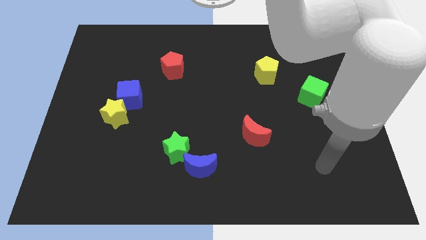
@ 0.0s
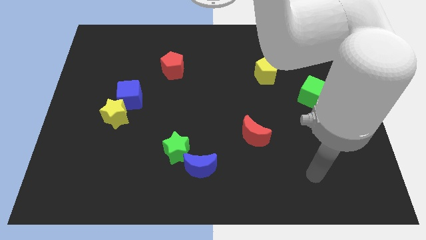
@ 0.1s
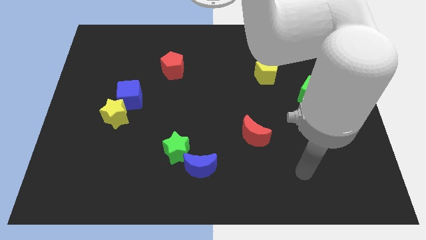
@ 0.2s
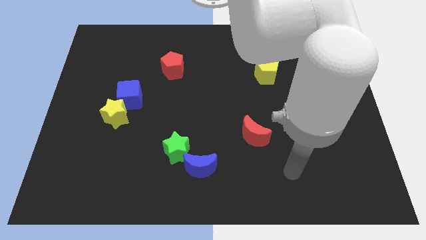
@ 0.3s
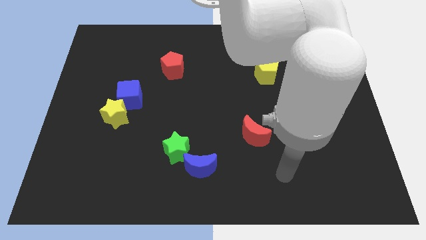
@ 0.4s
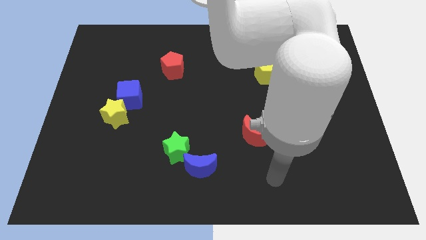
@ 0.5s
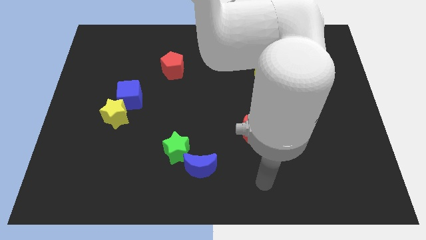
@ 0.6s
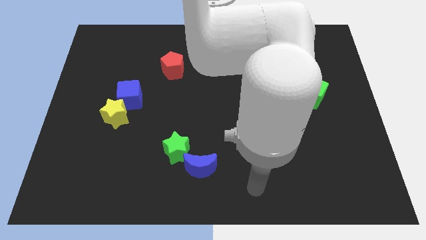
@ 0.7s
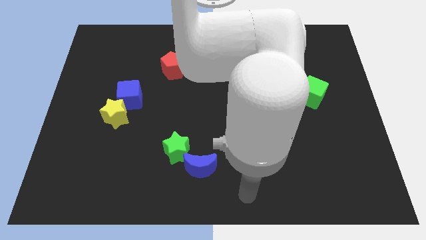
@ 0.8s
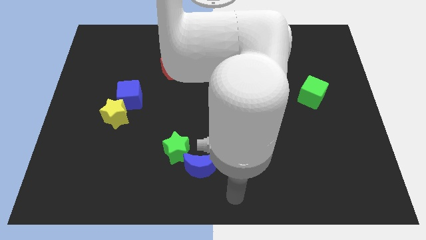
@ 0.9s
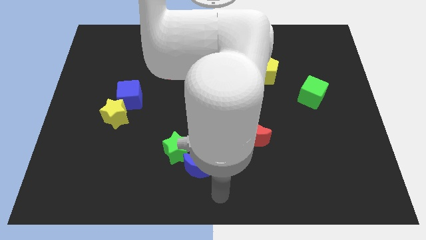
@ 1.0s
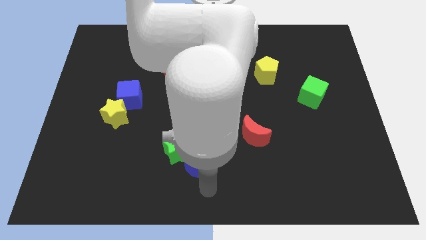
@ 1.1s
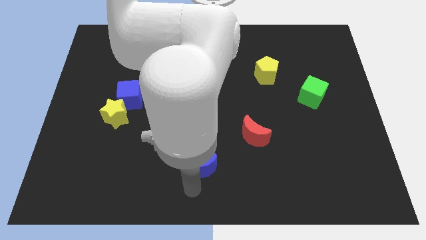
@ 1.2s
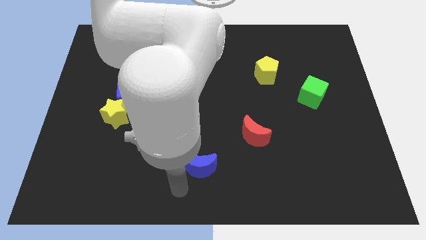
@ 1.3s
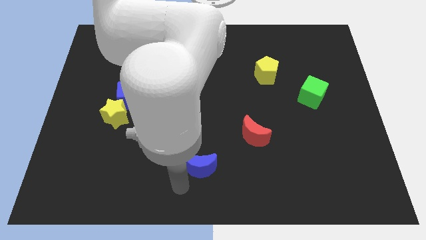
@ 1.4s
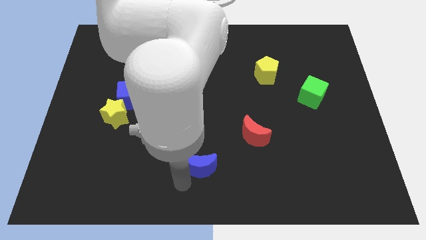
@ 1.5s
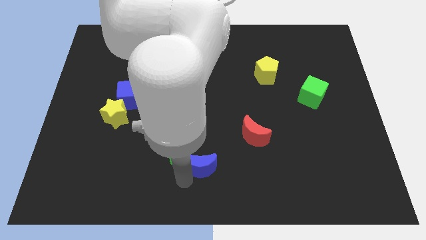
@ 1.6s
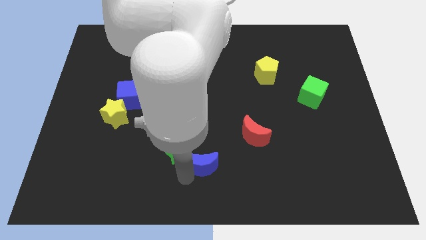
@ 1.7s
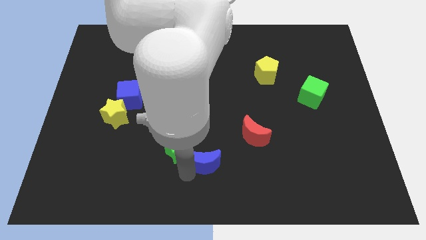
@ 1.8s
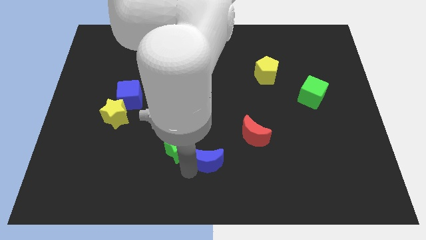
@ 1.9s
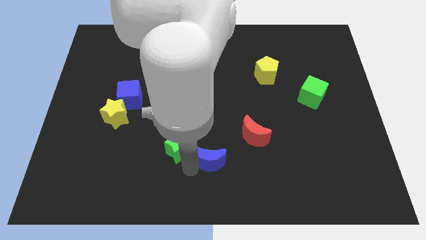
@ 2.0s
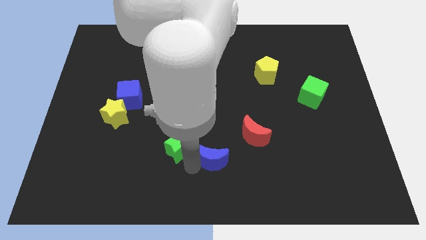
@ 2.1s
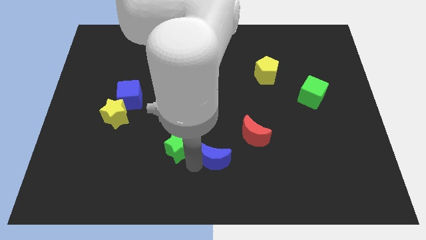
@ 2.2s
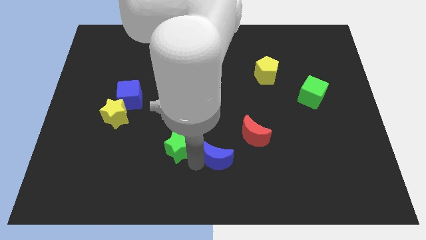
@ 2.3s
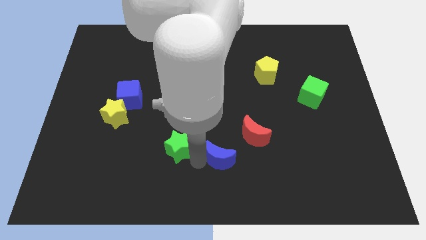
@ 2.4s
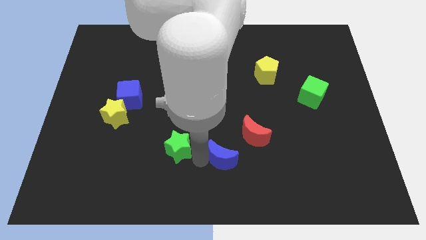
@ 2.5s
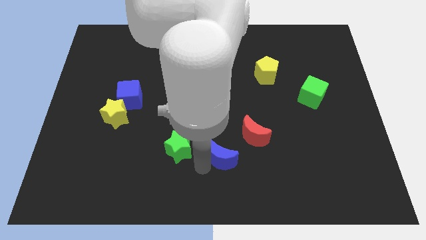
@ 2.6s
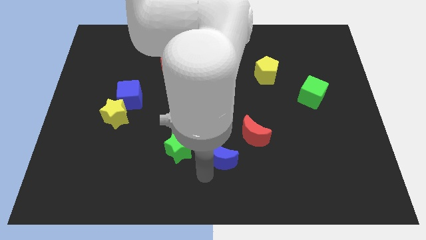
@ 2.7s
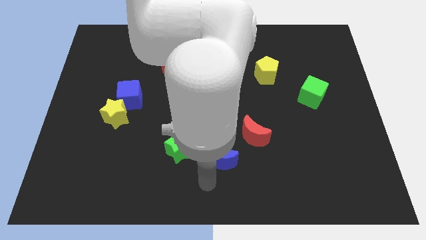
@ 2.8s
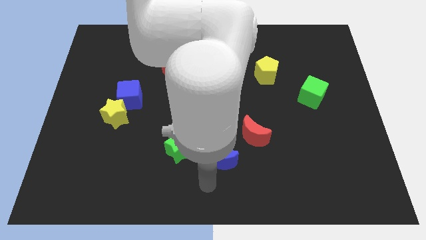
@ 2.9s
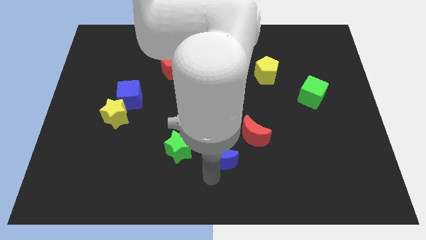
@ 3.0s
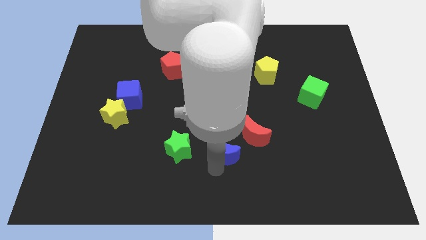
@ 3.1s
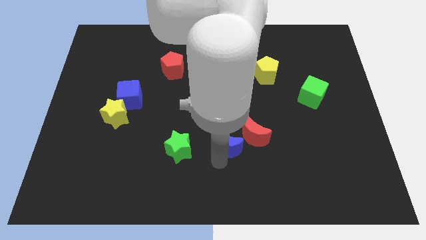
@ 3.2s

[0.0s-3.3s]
slightly push the blue moon upwards and then right

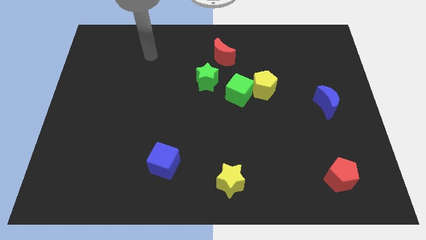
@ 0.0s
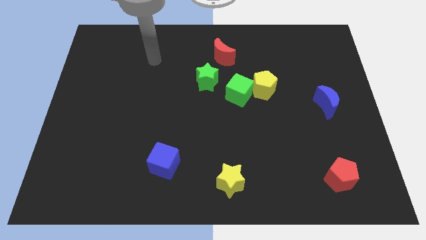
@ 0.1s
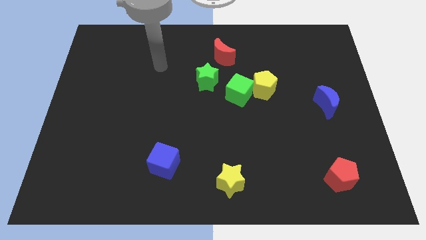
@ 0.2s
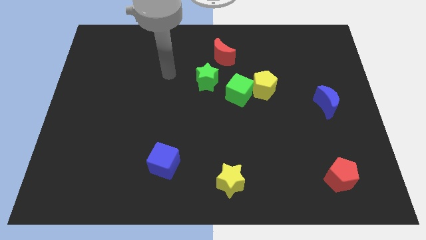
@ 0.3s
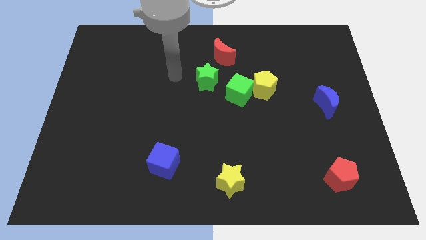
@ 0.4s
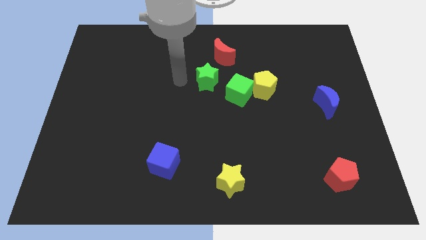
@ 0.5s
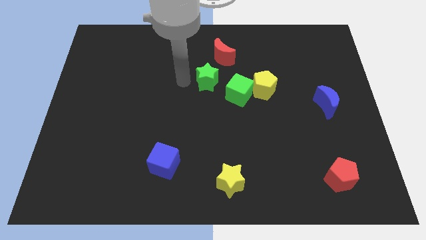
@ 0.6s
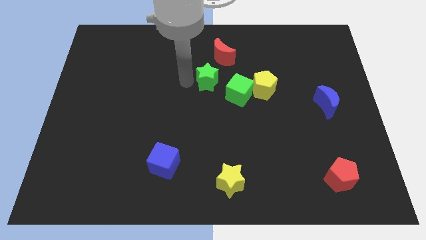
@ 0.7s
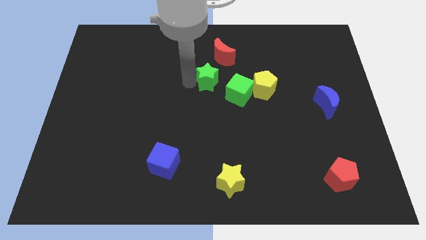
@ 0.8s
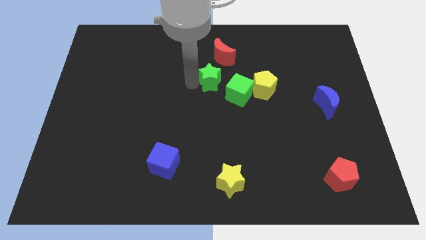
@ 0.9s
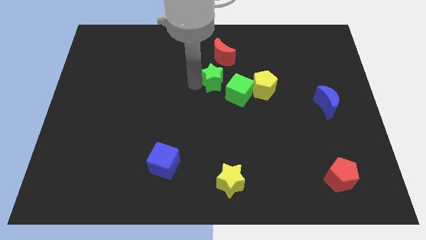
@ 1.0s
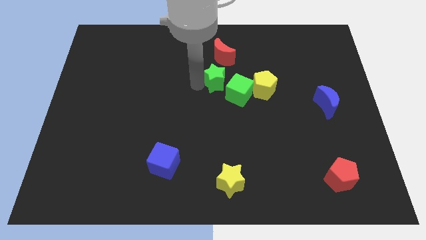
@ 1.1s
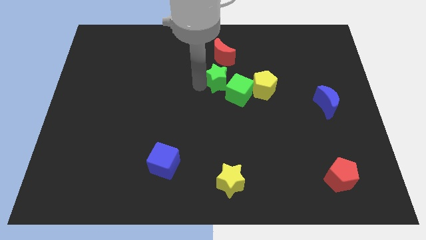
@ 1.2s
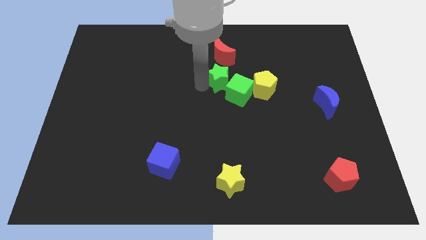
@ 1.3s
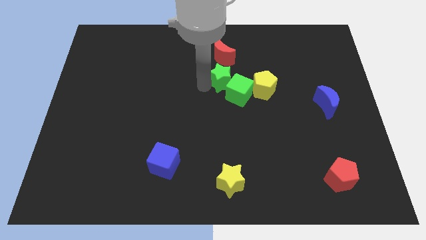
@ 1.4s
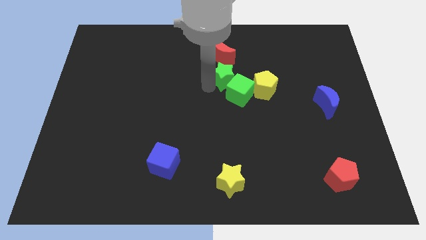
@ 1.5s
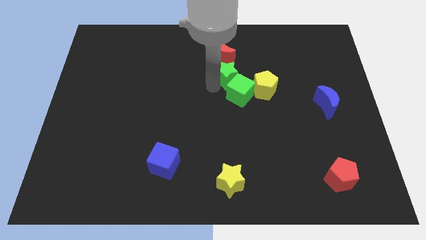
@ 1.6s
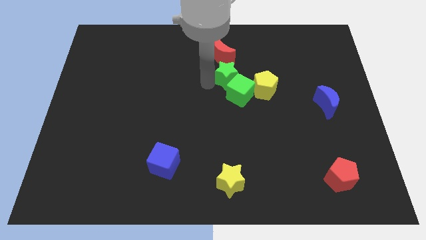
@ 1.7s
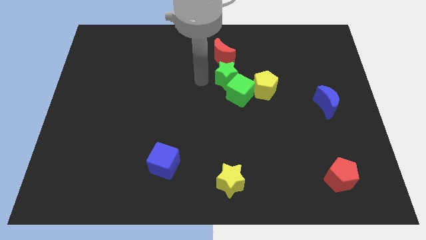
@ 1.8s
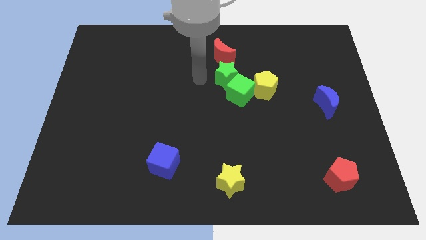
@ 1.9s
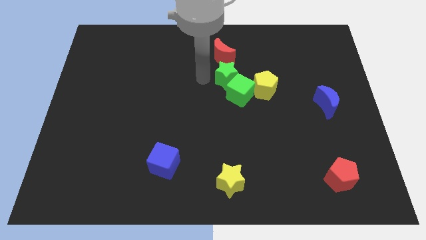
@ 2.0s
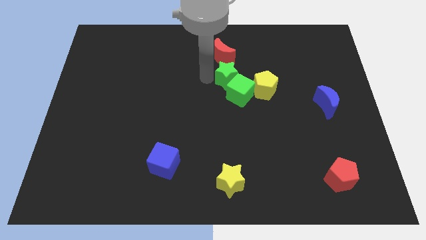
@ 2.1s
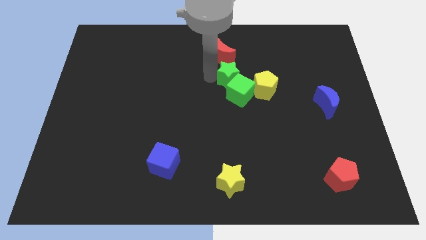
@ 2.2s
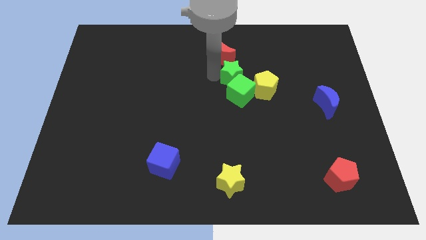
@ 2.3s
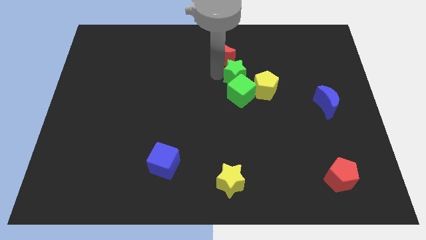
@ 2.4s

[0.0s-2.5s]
slide the green star a bit to the right

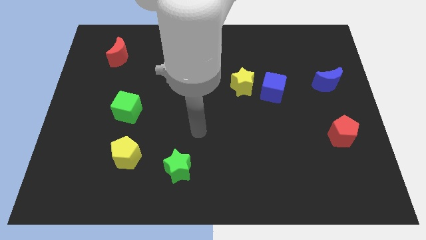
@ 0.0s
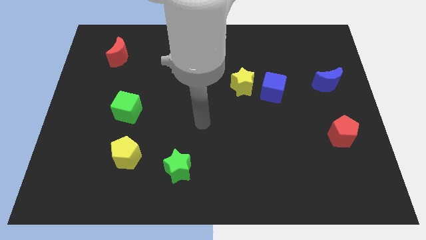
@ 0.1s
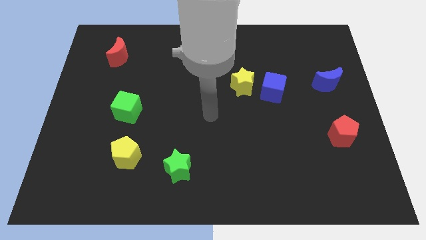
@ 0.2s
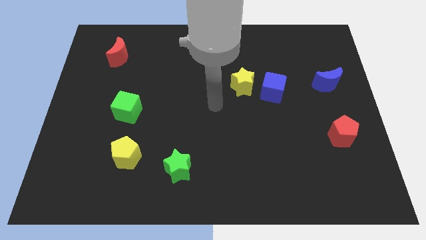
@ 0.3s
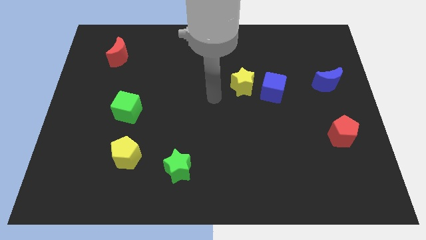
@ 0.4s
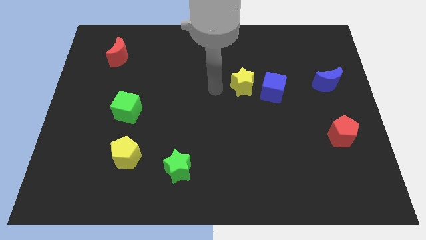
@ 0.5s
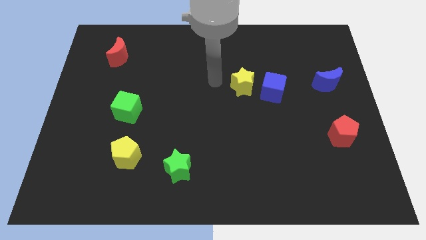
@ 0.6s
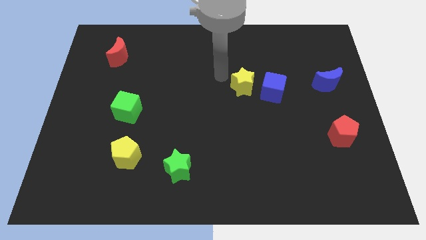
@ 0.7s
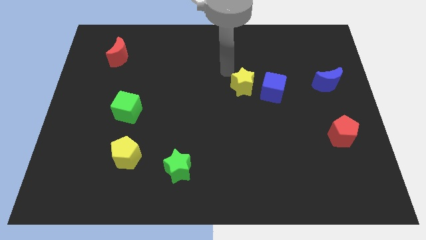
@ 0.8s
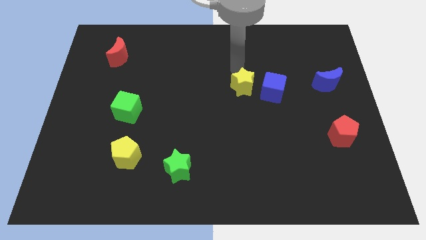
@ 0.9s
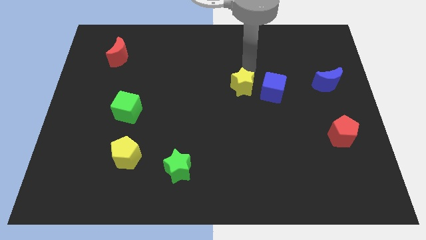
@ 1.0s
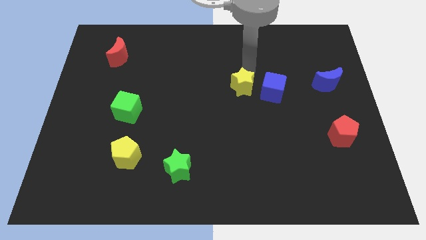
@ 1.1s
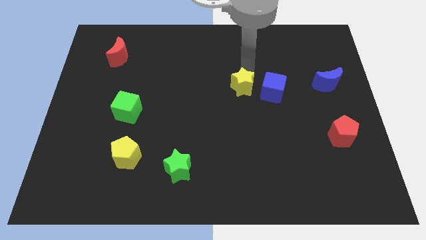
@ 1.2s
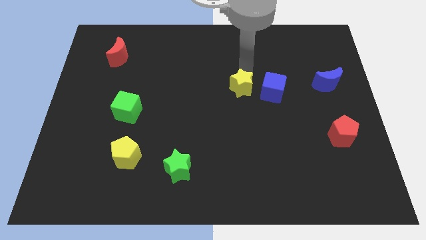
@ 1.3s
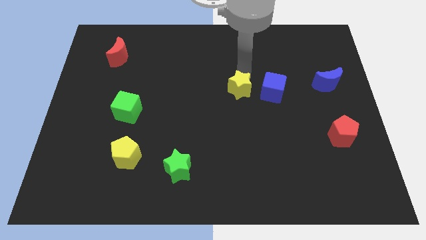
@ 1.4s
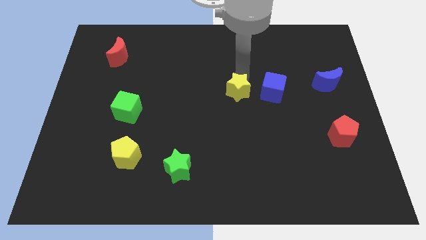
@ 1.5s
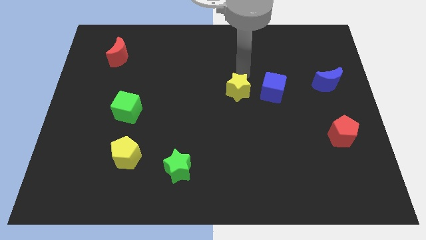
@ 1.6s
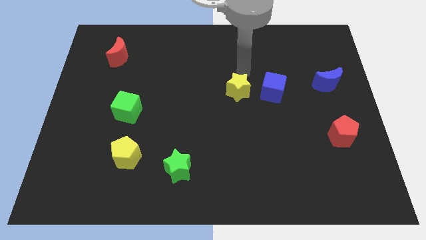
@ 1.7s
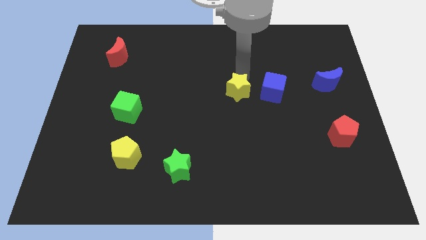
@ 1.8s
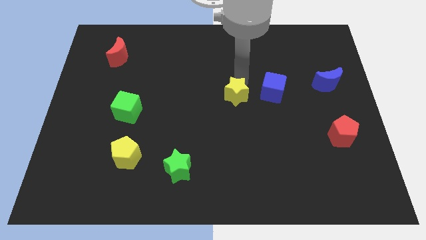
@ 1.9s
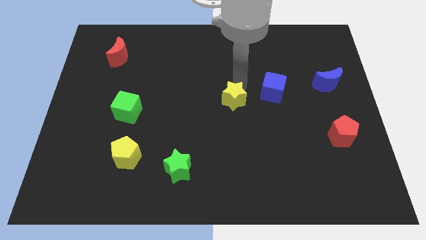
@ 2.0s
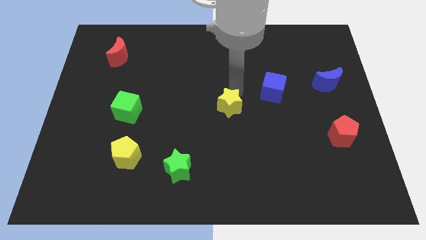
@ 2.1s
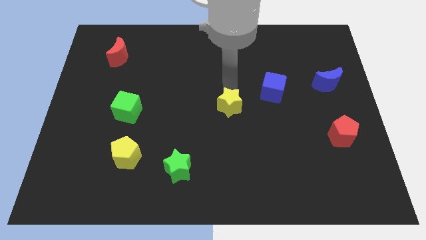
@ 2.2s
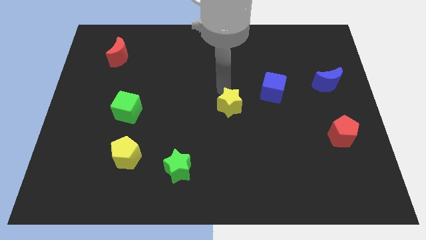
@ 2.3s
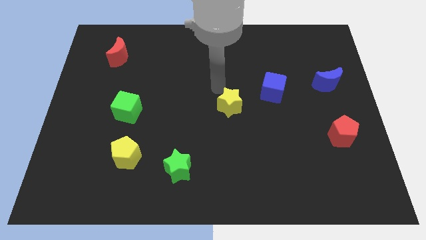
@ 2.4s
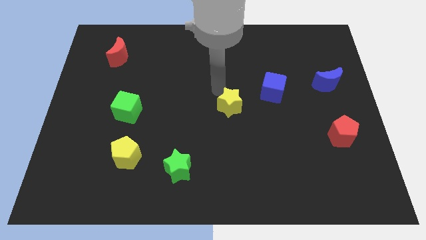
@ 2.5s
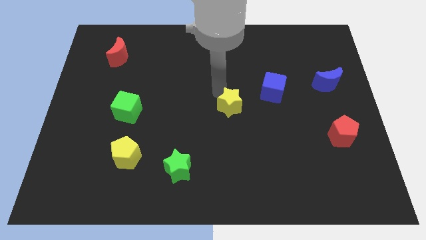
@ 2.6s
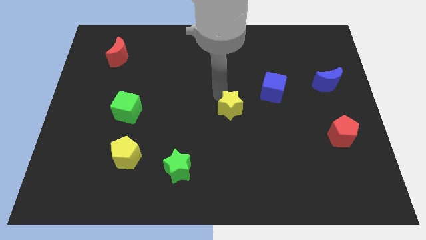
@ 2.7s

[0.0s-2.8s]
slide the yellow star down a little
